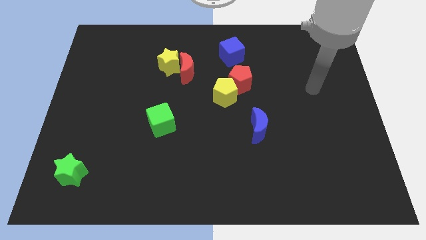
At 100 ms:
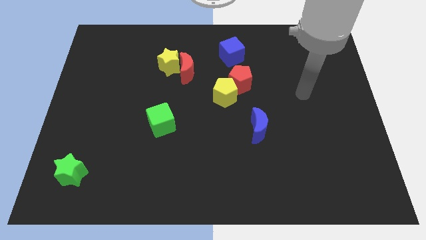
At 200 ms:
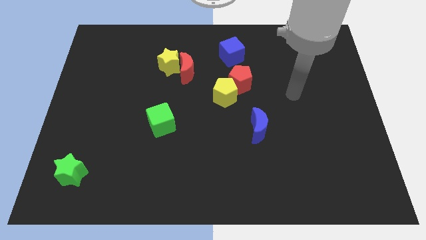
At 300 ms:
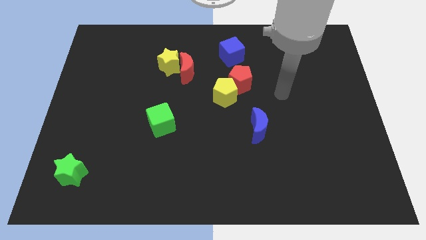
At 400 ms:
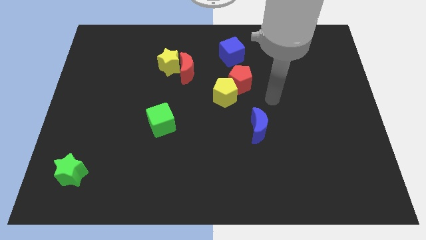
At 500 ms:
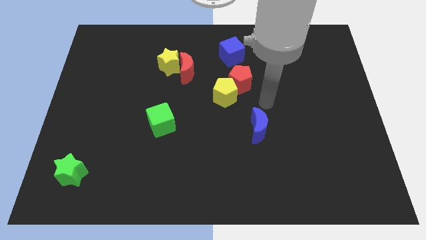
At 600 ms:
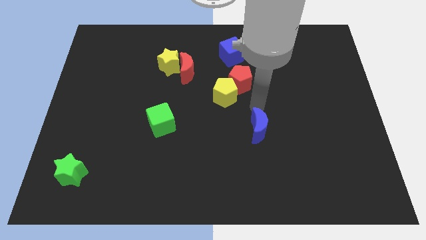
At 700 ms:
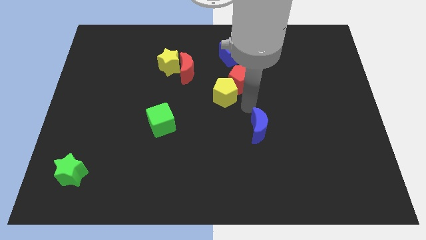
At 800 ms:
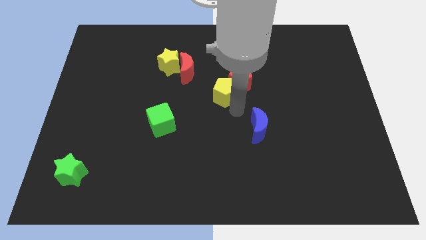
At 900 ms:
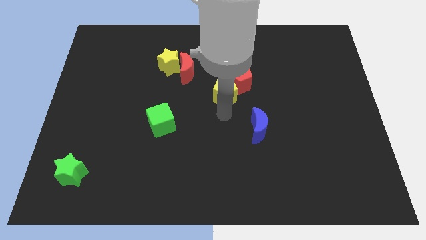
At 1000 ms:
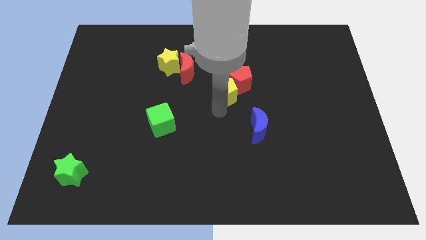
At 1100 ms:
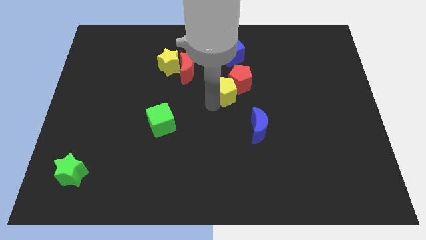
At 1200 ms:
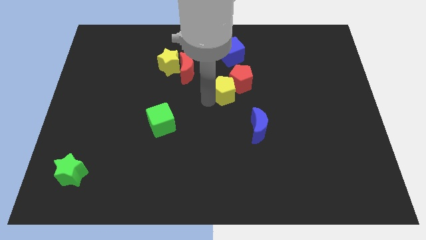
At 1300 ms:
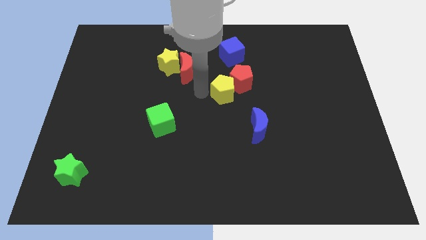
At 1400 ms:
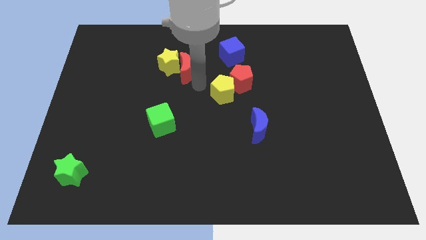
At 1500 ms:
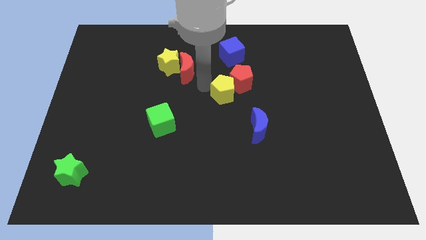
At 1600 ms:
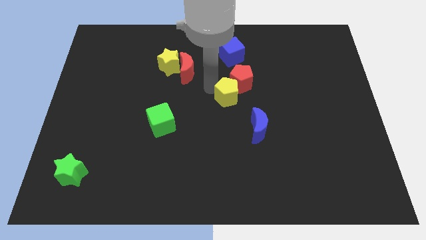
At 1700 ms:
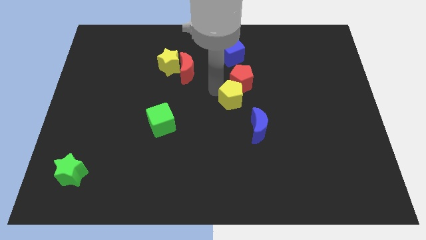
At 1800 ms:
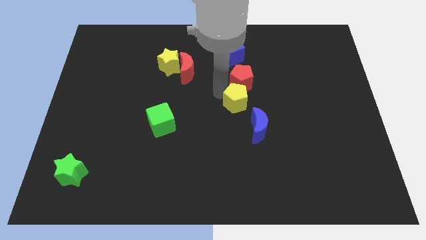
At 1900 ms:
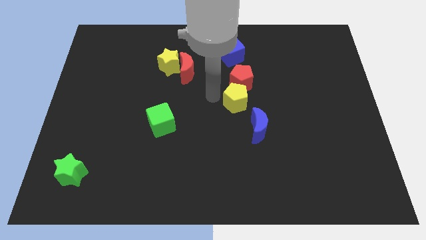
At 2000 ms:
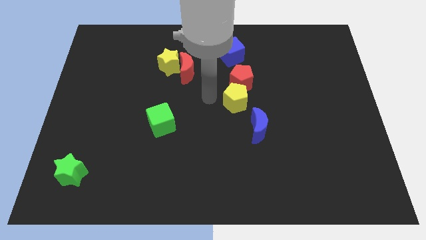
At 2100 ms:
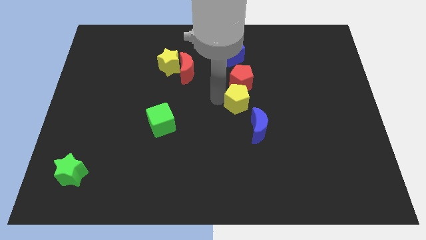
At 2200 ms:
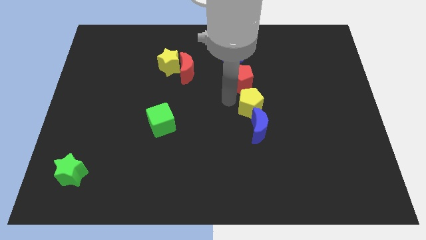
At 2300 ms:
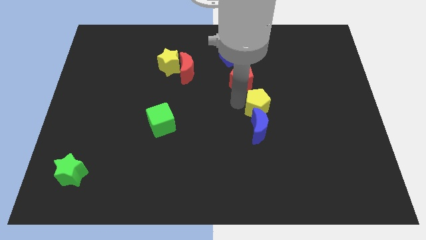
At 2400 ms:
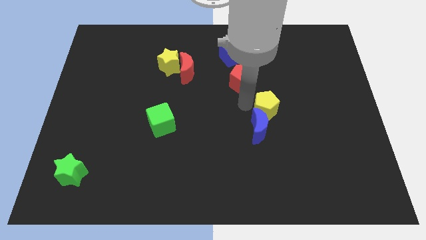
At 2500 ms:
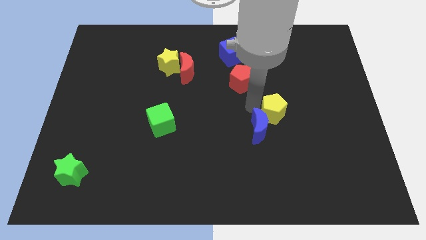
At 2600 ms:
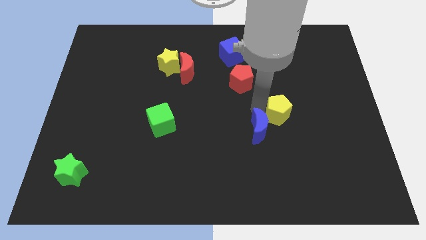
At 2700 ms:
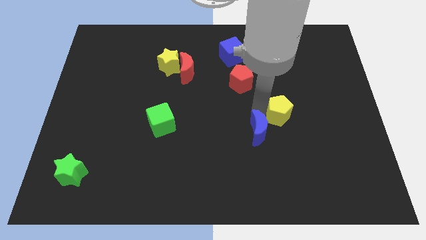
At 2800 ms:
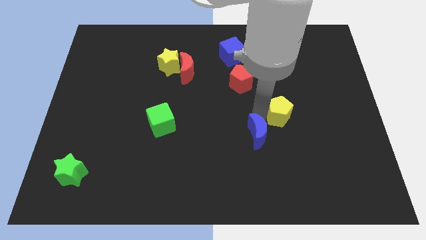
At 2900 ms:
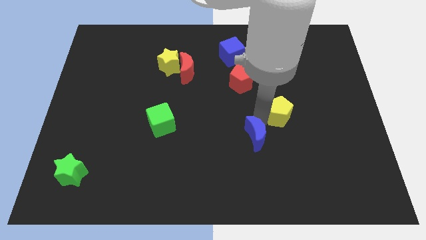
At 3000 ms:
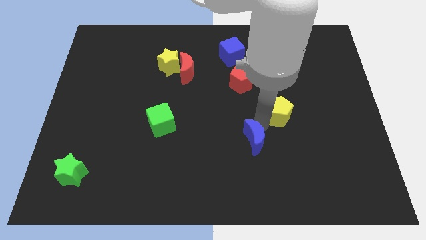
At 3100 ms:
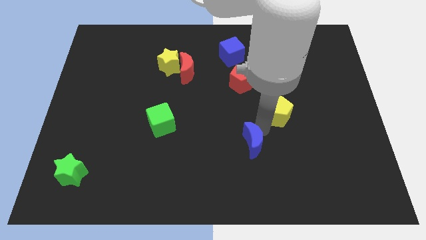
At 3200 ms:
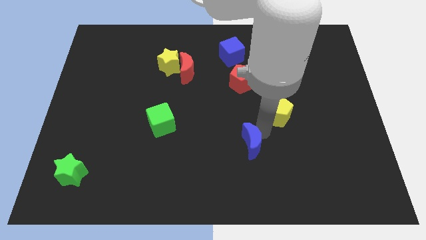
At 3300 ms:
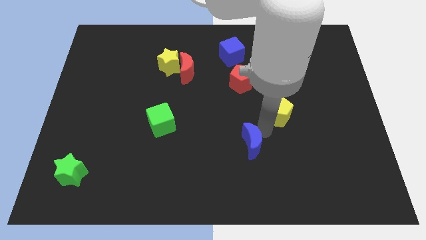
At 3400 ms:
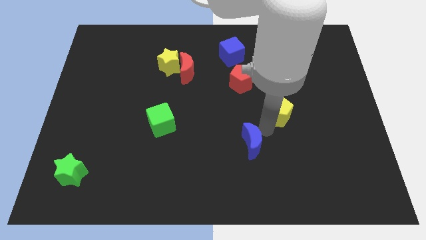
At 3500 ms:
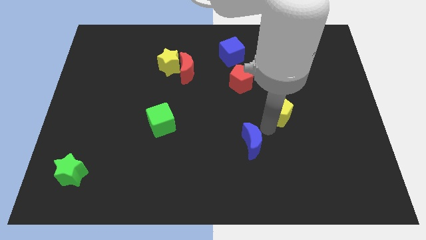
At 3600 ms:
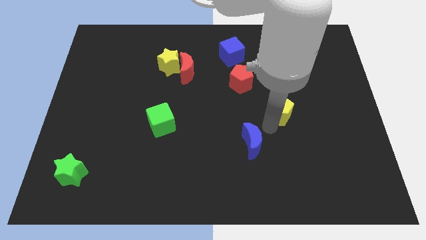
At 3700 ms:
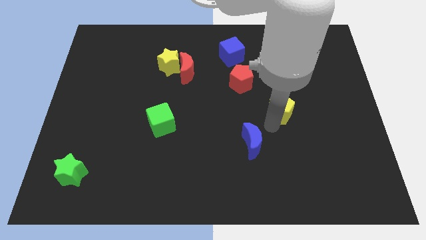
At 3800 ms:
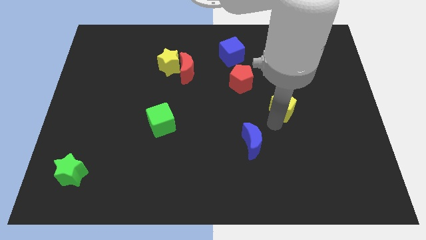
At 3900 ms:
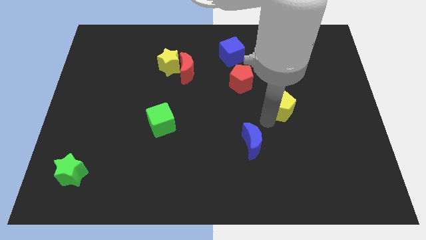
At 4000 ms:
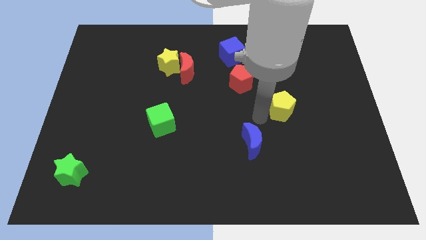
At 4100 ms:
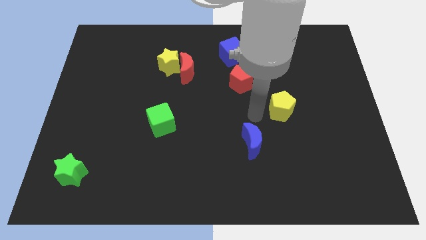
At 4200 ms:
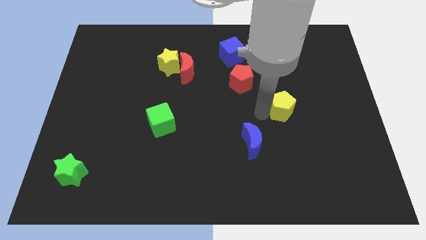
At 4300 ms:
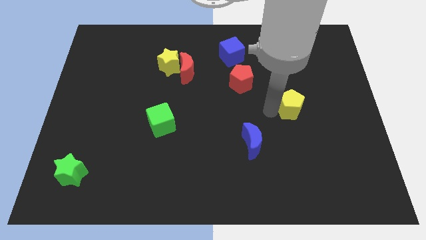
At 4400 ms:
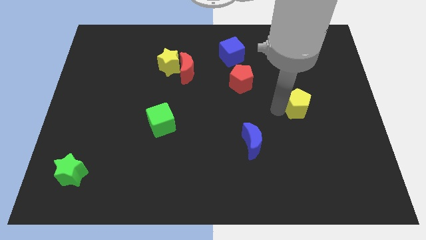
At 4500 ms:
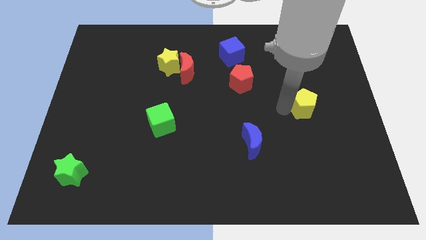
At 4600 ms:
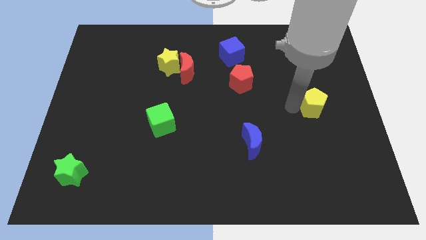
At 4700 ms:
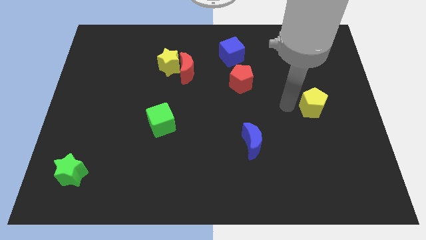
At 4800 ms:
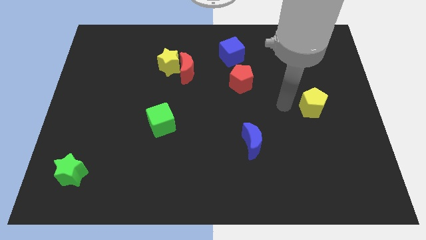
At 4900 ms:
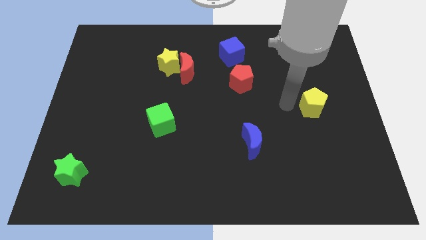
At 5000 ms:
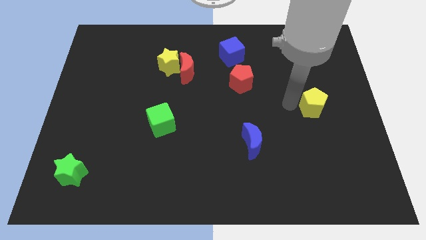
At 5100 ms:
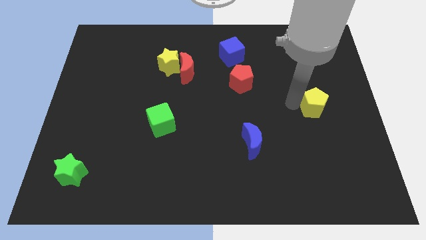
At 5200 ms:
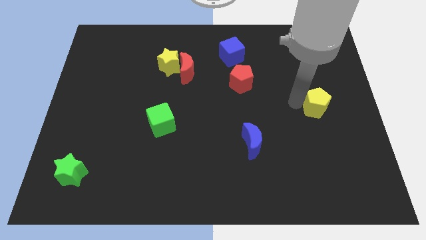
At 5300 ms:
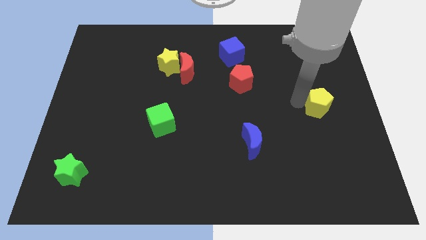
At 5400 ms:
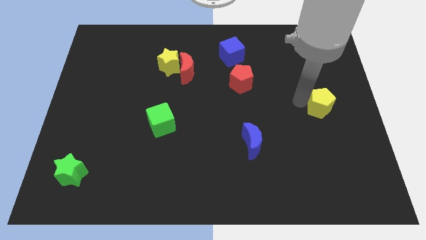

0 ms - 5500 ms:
slide the yellow pentagon to the right side
